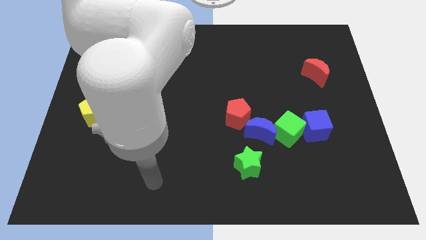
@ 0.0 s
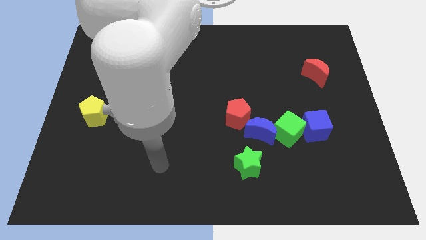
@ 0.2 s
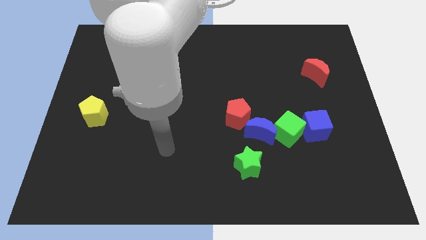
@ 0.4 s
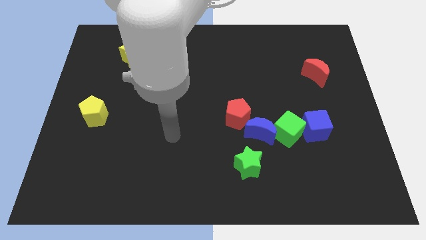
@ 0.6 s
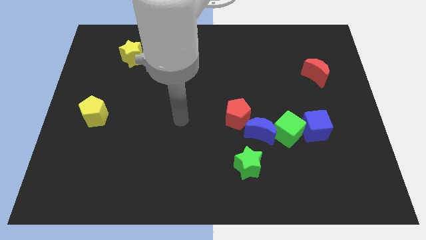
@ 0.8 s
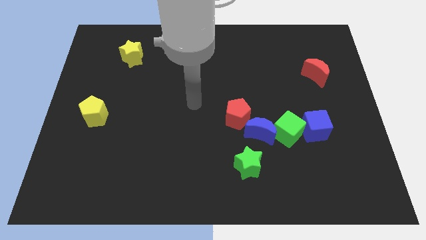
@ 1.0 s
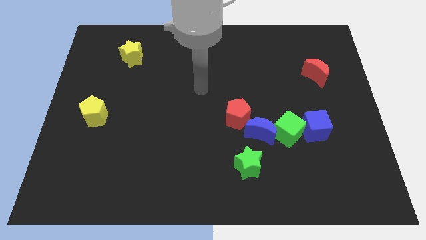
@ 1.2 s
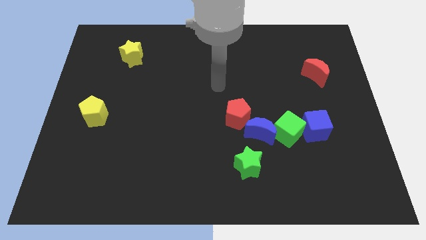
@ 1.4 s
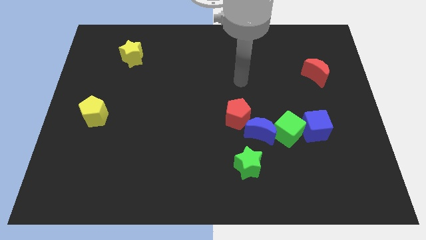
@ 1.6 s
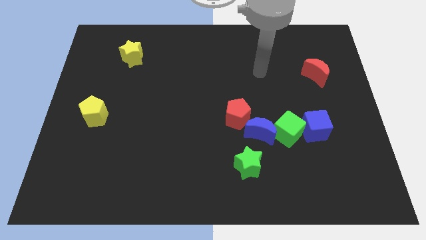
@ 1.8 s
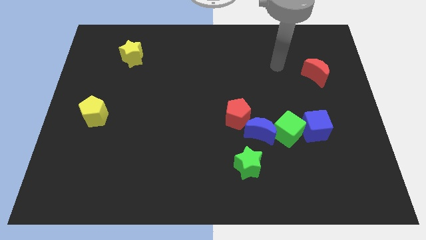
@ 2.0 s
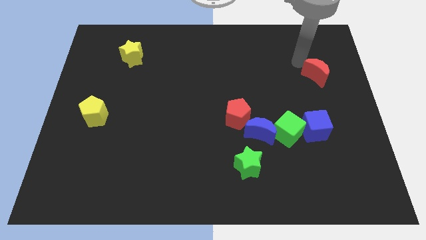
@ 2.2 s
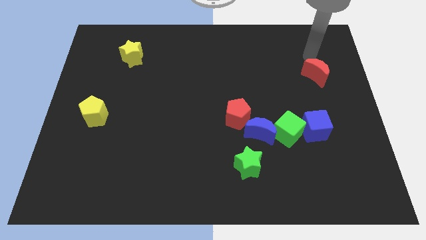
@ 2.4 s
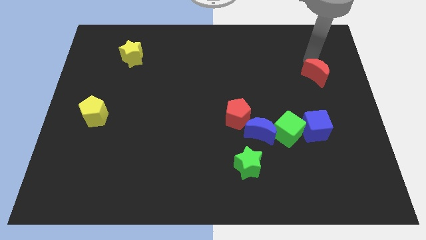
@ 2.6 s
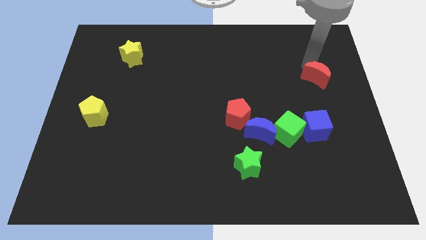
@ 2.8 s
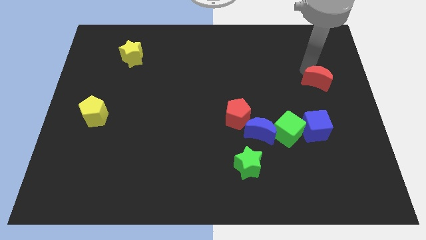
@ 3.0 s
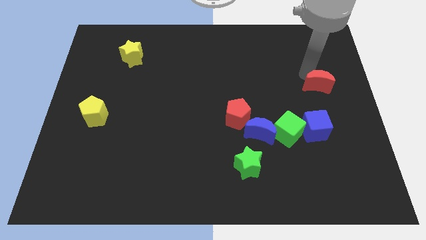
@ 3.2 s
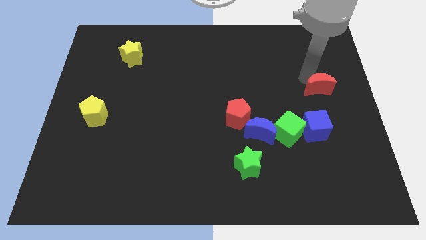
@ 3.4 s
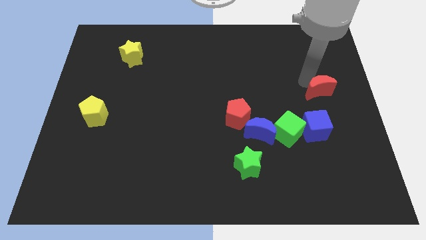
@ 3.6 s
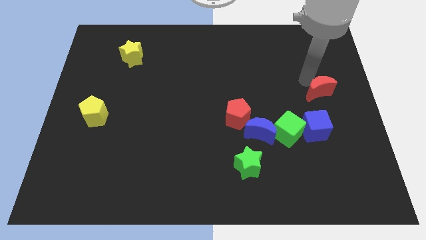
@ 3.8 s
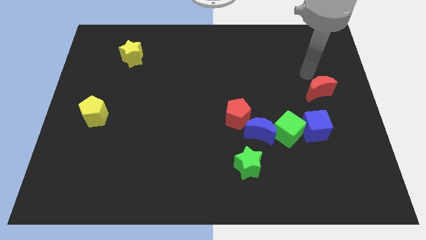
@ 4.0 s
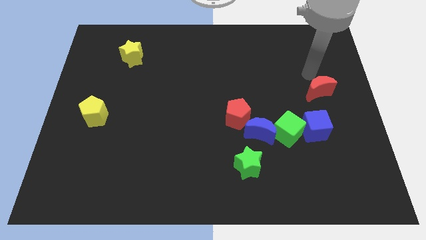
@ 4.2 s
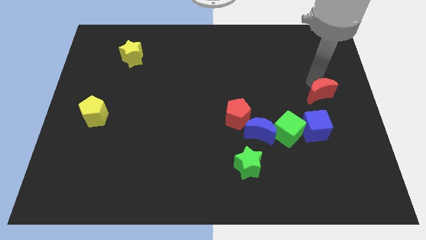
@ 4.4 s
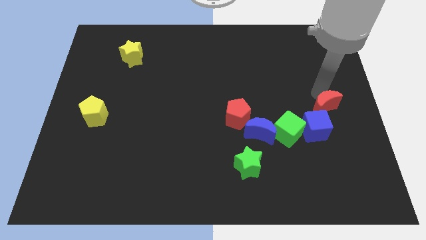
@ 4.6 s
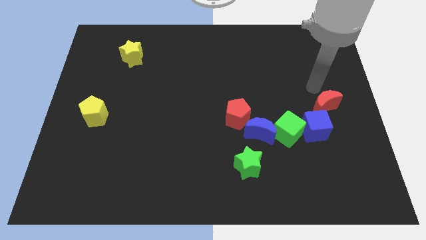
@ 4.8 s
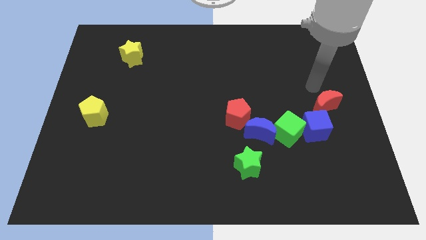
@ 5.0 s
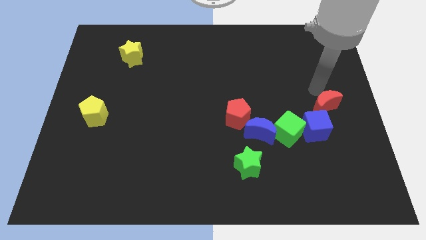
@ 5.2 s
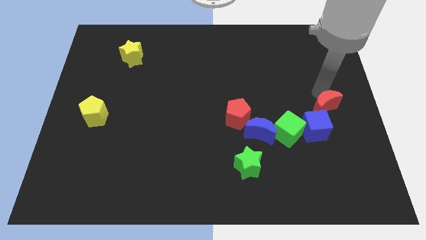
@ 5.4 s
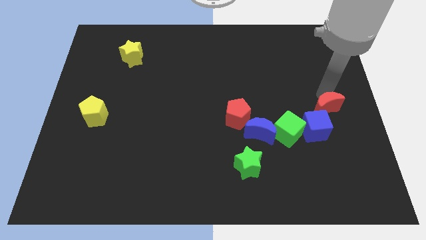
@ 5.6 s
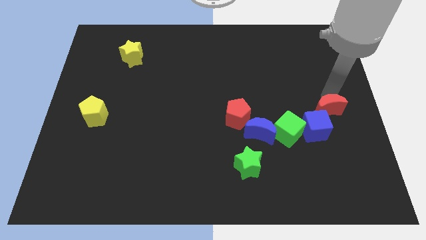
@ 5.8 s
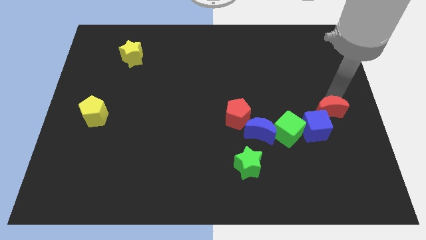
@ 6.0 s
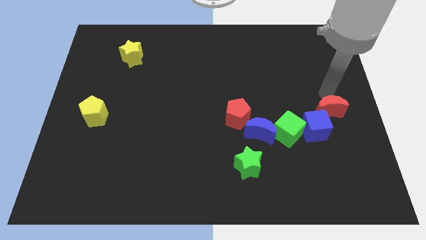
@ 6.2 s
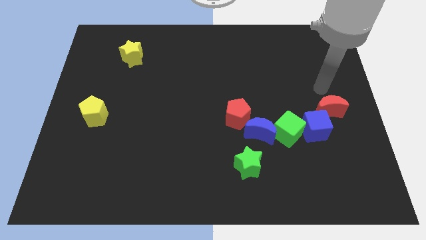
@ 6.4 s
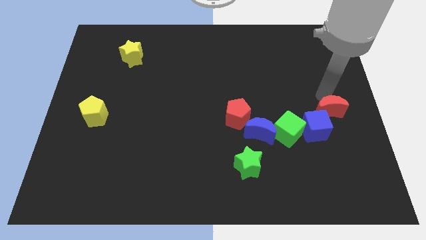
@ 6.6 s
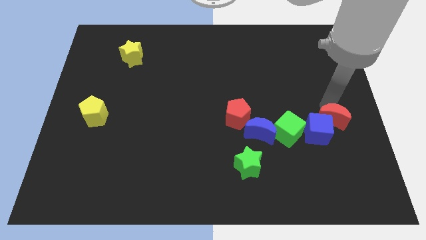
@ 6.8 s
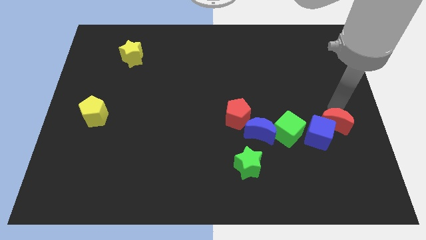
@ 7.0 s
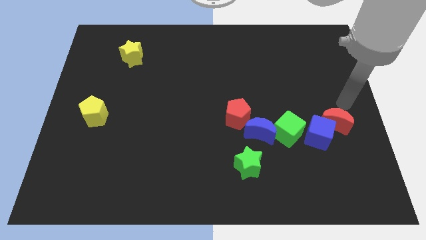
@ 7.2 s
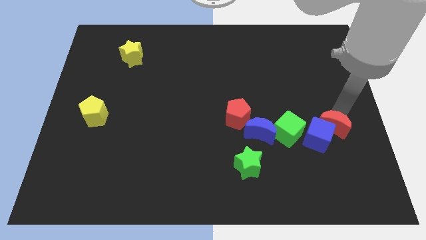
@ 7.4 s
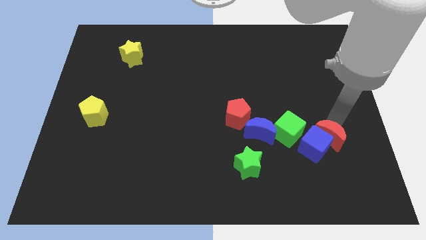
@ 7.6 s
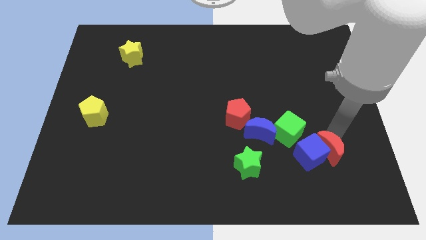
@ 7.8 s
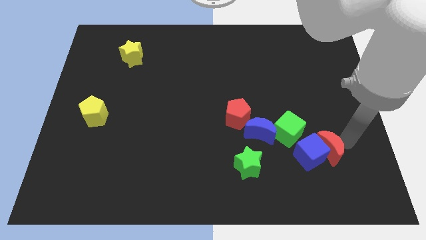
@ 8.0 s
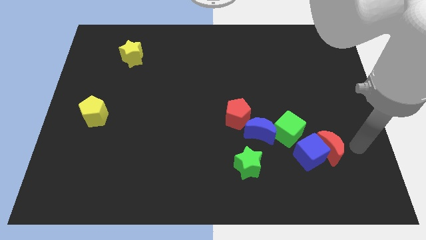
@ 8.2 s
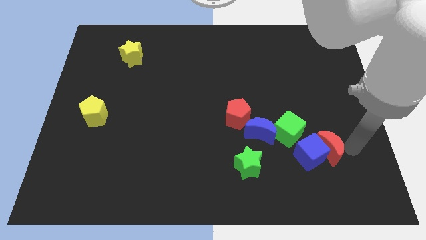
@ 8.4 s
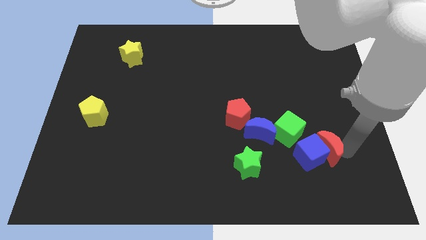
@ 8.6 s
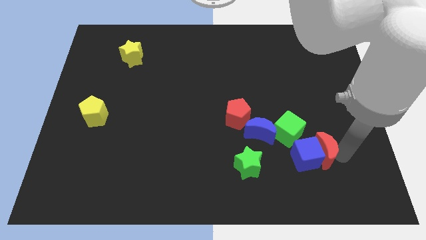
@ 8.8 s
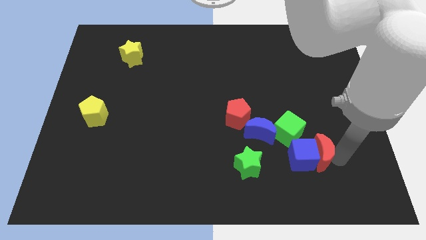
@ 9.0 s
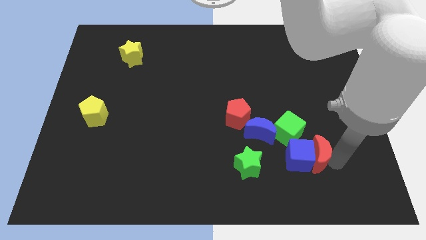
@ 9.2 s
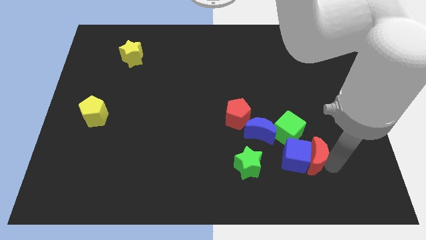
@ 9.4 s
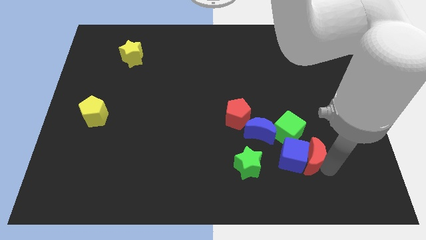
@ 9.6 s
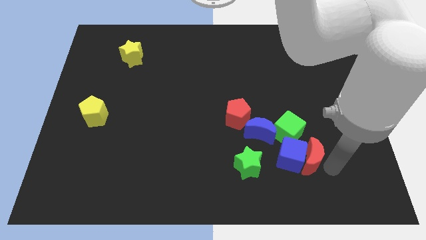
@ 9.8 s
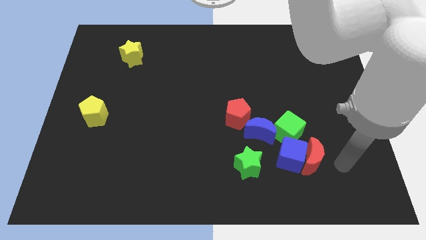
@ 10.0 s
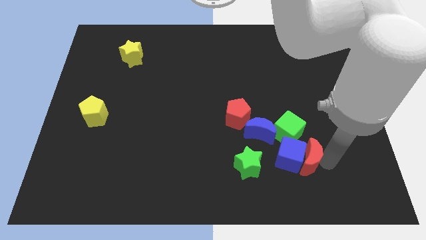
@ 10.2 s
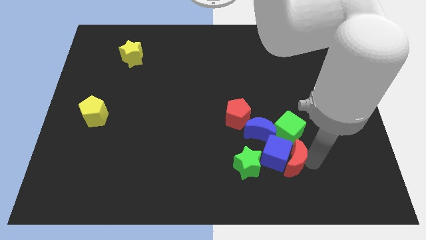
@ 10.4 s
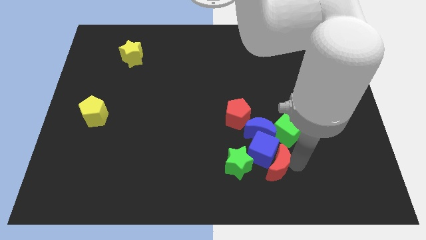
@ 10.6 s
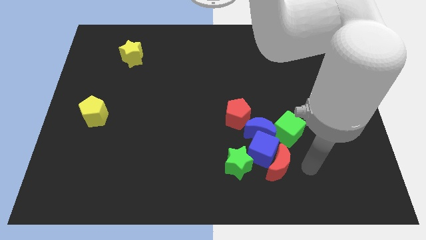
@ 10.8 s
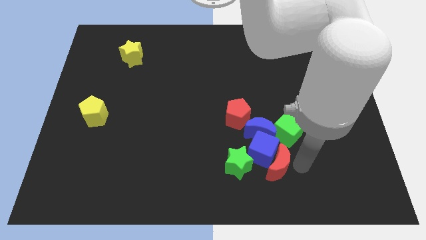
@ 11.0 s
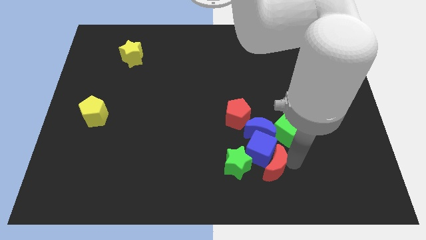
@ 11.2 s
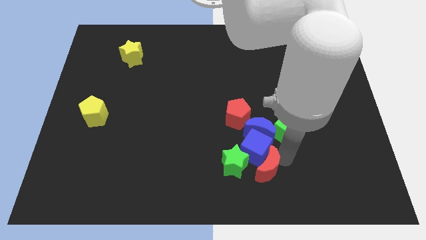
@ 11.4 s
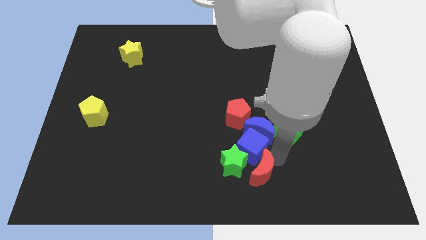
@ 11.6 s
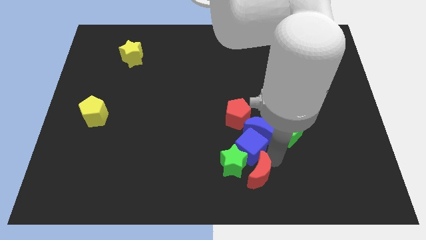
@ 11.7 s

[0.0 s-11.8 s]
put the red moon next to the green star
